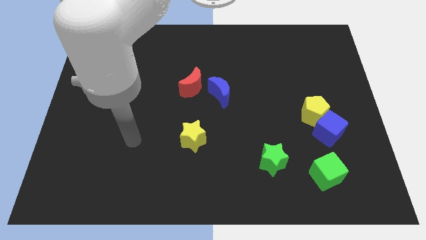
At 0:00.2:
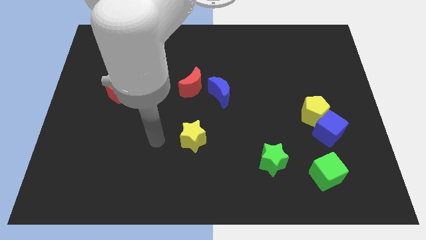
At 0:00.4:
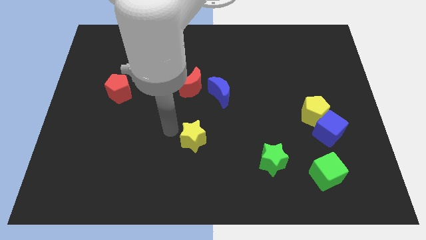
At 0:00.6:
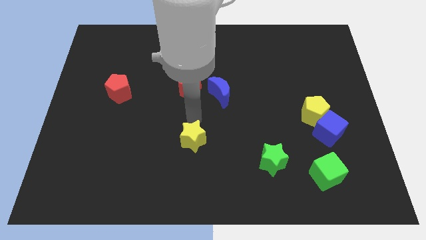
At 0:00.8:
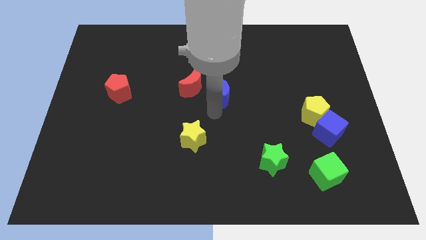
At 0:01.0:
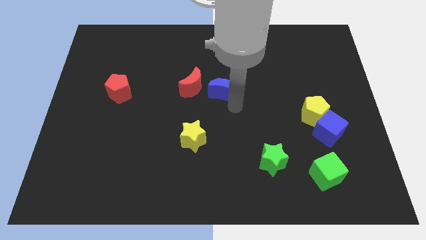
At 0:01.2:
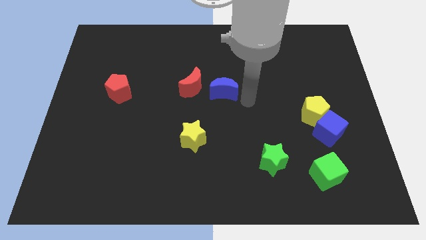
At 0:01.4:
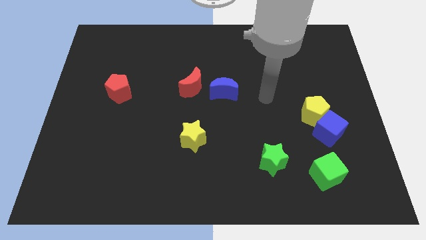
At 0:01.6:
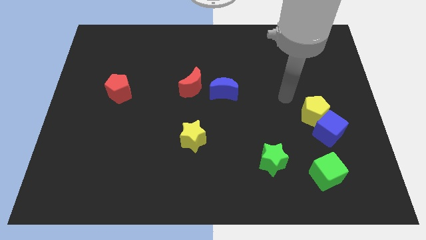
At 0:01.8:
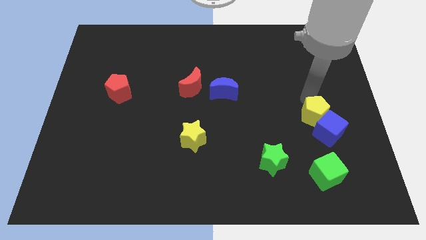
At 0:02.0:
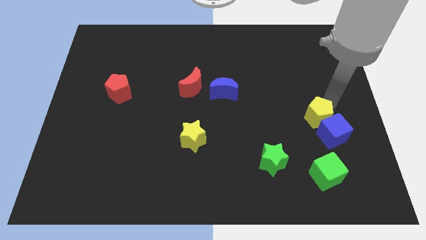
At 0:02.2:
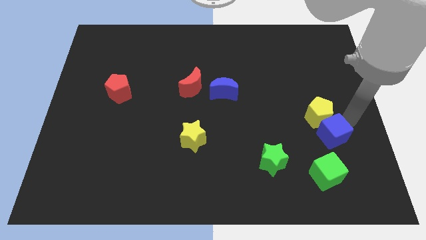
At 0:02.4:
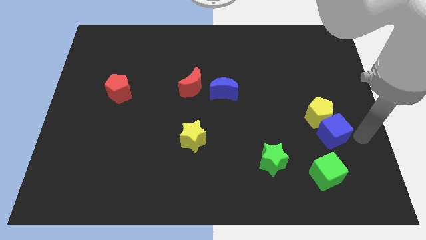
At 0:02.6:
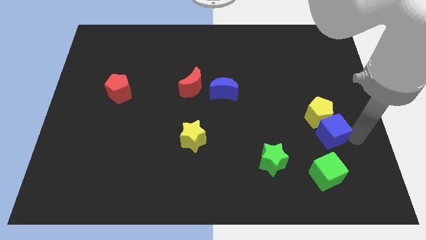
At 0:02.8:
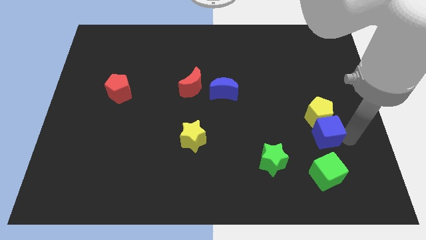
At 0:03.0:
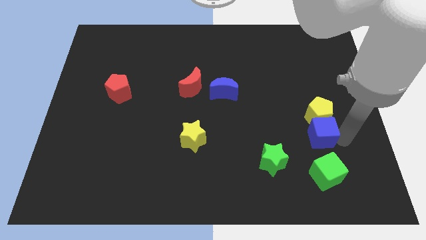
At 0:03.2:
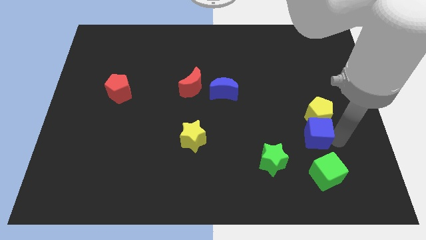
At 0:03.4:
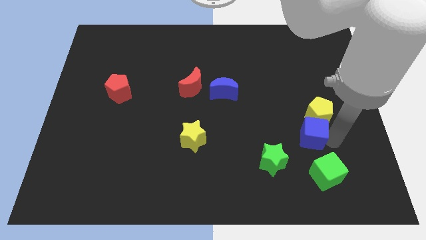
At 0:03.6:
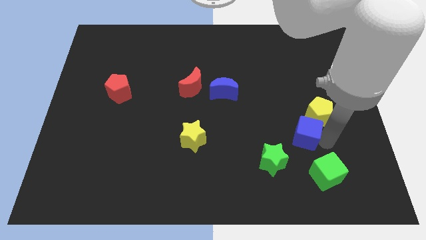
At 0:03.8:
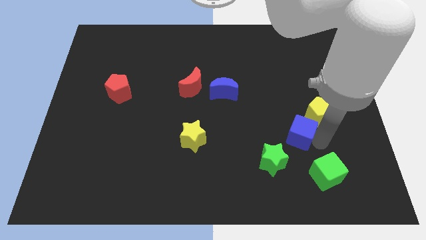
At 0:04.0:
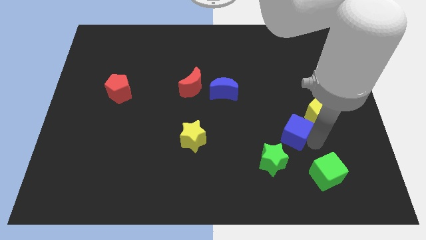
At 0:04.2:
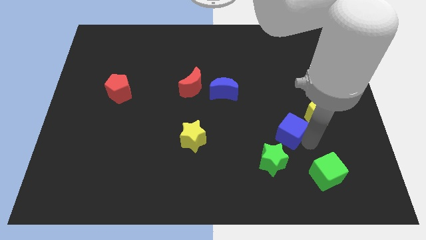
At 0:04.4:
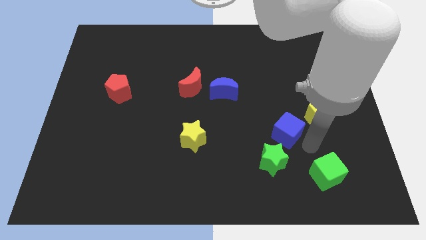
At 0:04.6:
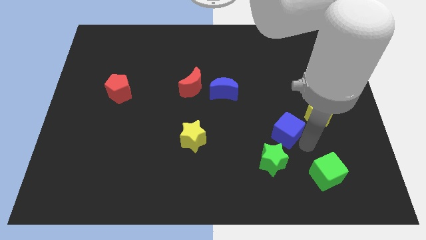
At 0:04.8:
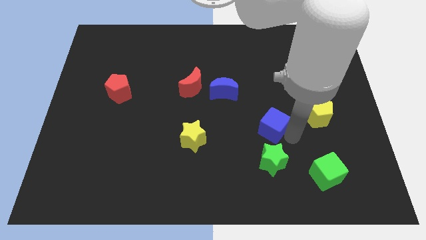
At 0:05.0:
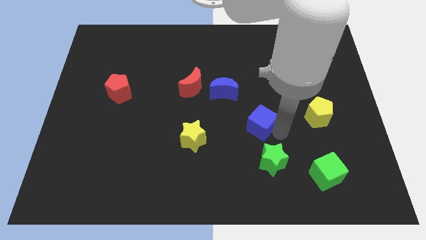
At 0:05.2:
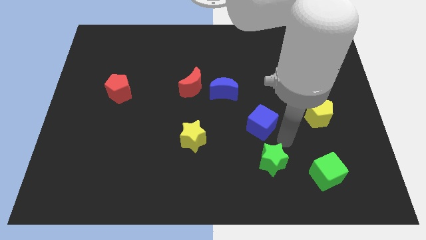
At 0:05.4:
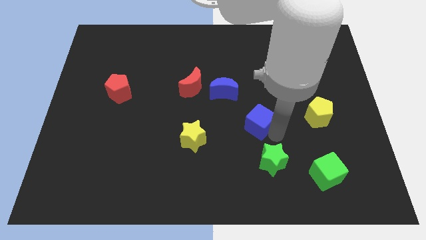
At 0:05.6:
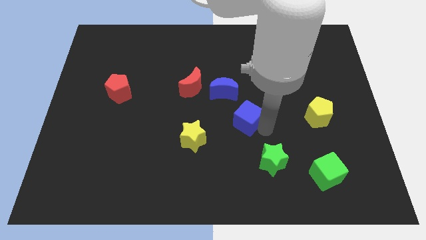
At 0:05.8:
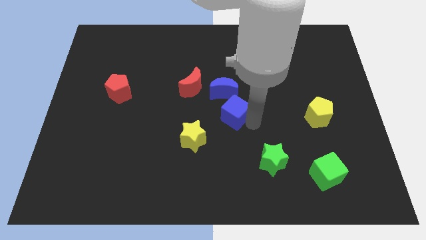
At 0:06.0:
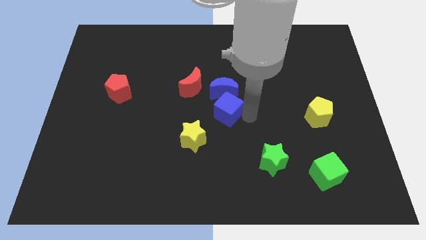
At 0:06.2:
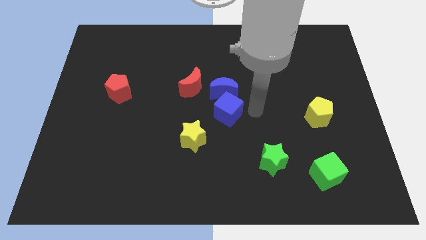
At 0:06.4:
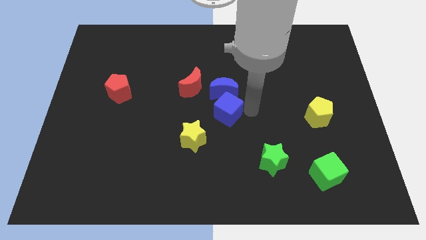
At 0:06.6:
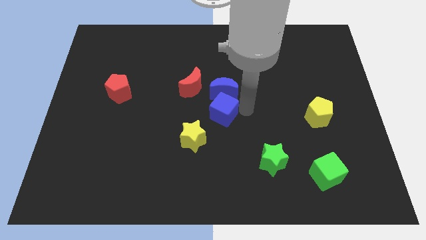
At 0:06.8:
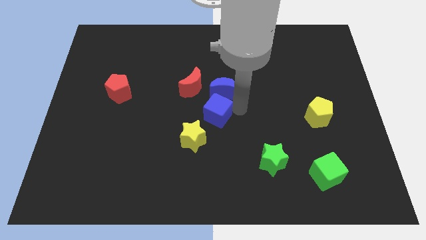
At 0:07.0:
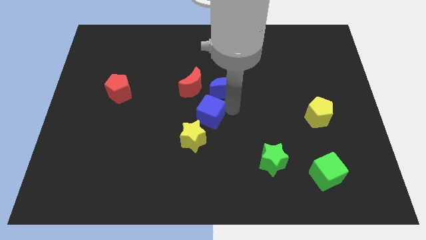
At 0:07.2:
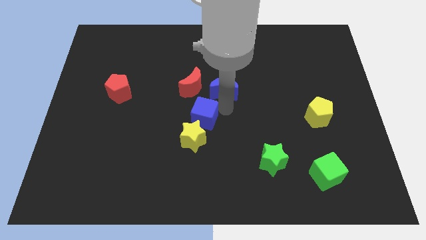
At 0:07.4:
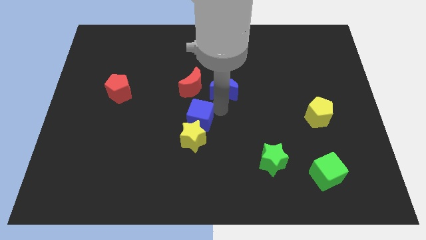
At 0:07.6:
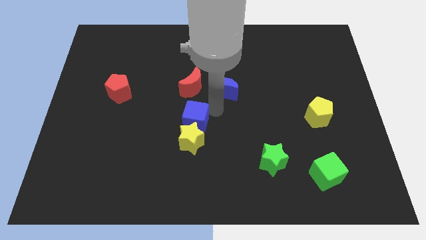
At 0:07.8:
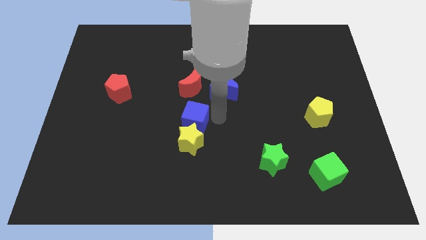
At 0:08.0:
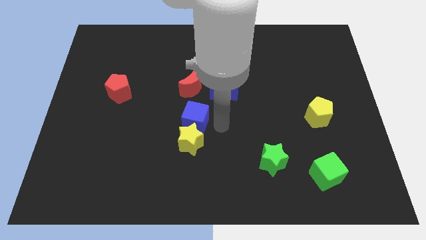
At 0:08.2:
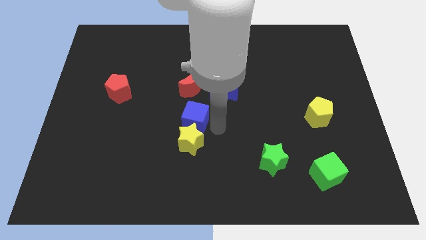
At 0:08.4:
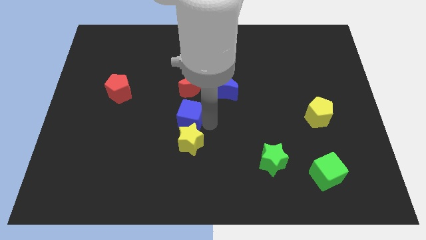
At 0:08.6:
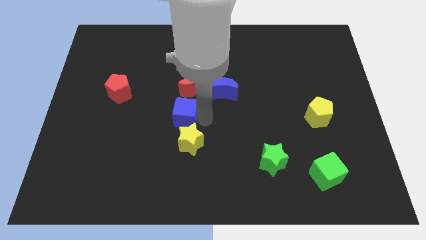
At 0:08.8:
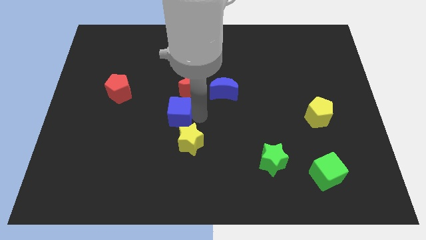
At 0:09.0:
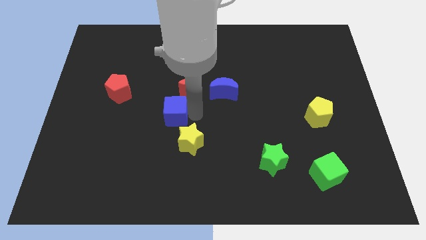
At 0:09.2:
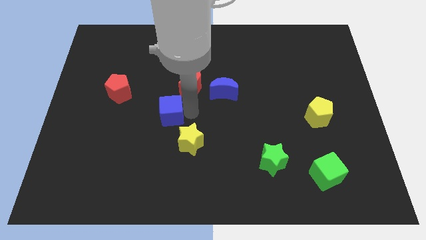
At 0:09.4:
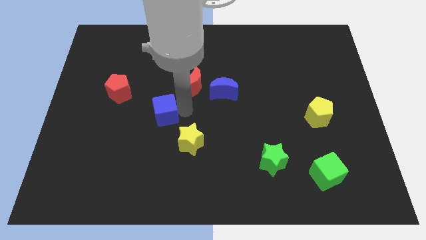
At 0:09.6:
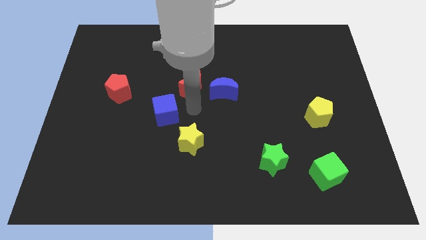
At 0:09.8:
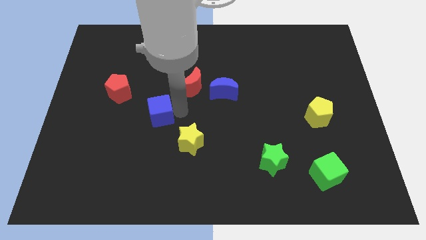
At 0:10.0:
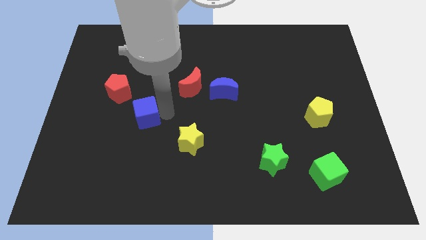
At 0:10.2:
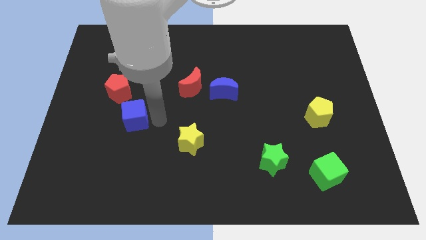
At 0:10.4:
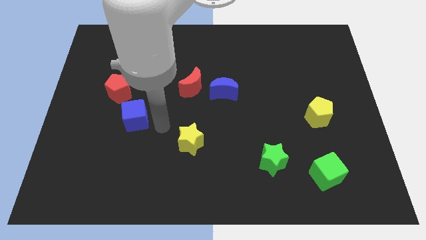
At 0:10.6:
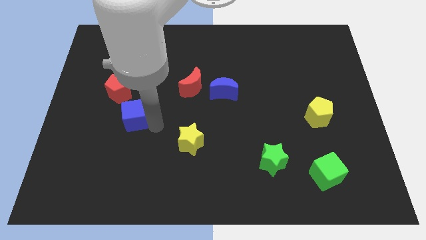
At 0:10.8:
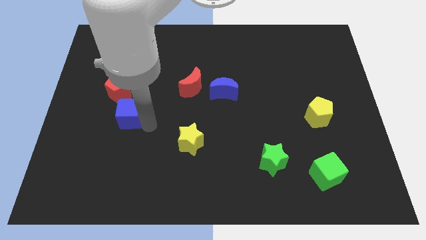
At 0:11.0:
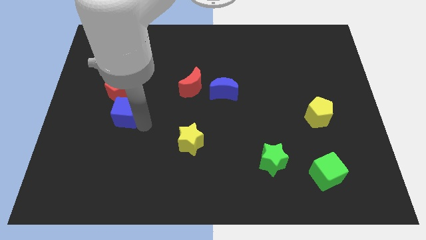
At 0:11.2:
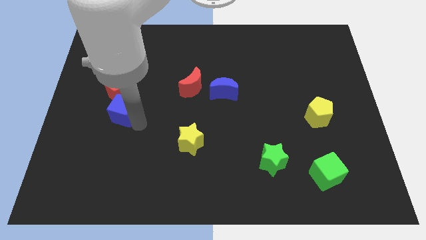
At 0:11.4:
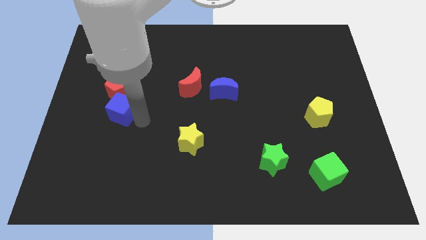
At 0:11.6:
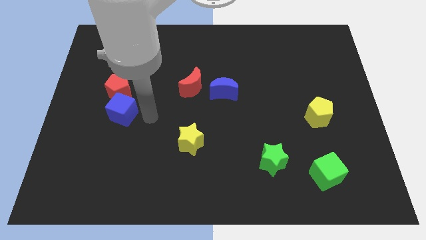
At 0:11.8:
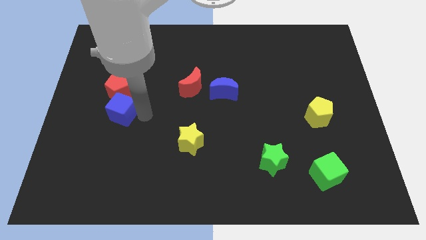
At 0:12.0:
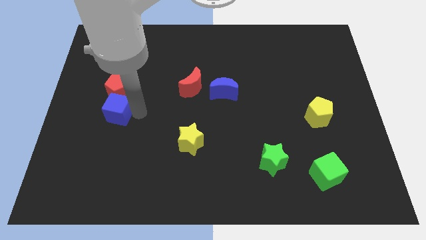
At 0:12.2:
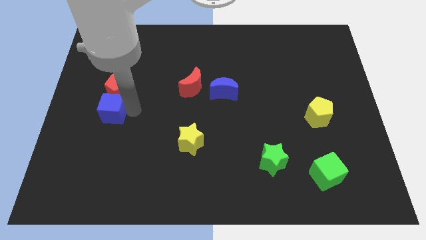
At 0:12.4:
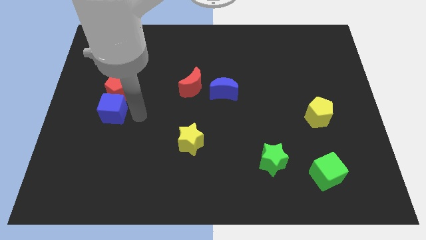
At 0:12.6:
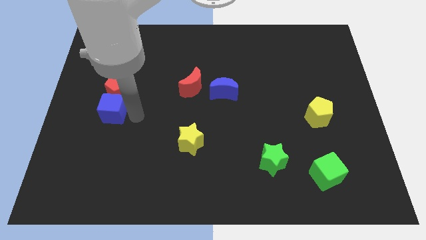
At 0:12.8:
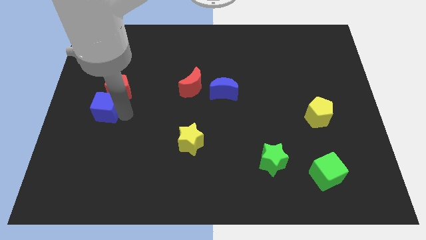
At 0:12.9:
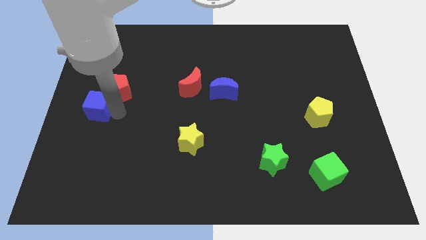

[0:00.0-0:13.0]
slide the blue cube to the center left
